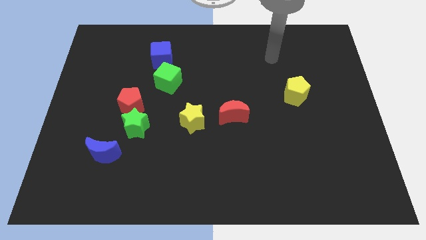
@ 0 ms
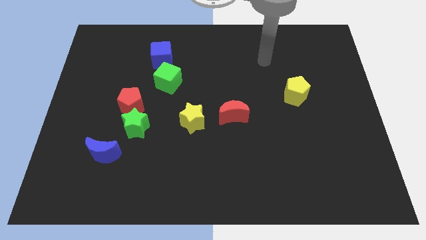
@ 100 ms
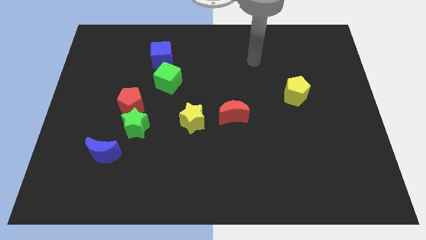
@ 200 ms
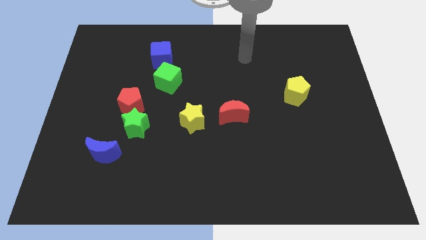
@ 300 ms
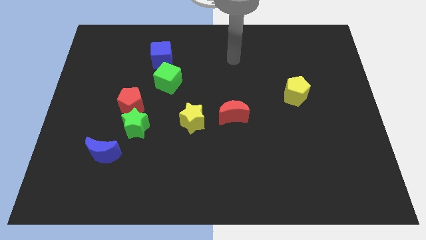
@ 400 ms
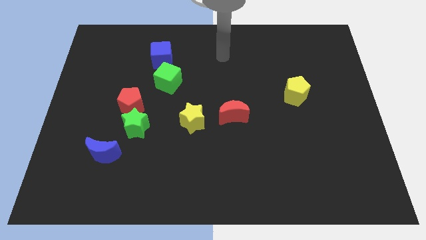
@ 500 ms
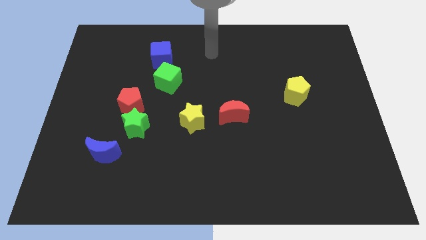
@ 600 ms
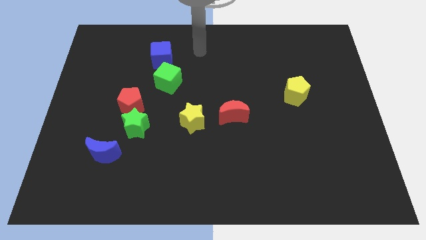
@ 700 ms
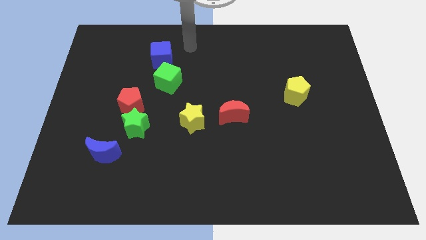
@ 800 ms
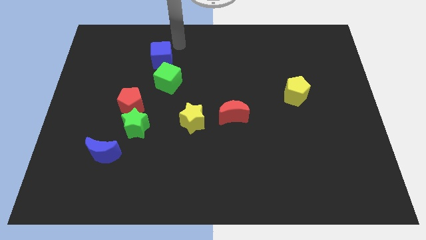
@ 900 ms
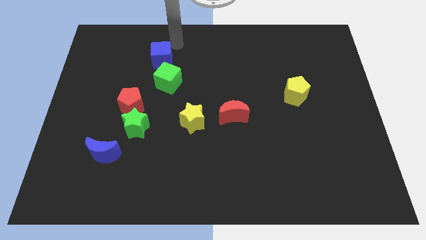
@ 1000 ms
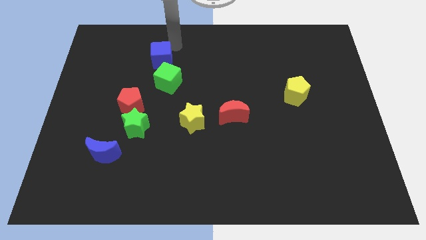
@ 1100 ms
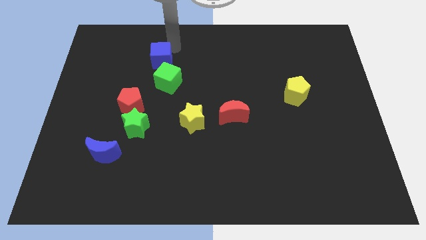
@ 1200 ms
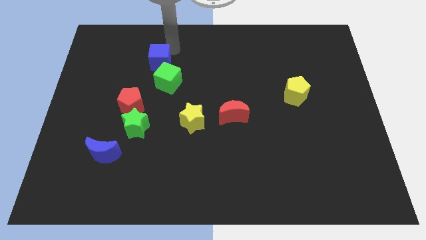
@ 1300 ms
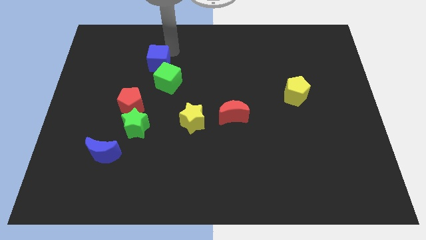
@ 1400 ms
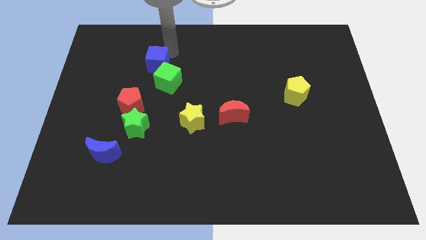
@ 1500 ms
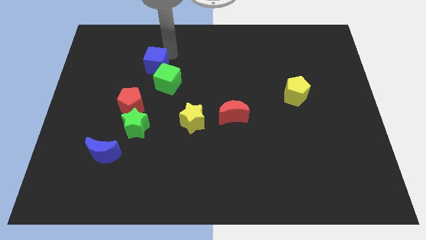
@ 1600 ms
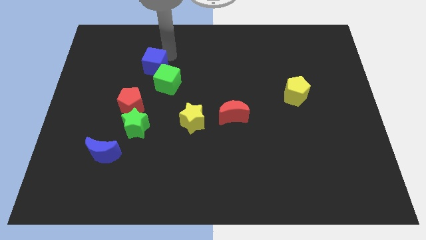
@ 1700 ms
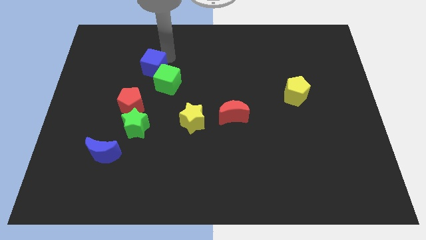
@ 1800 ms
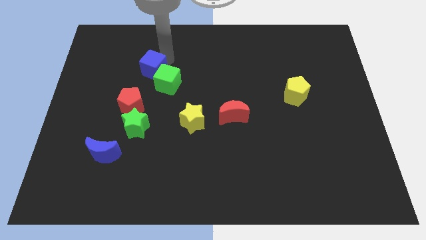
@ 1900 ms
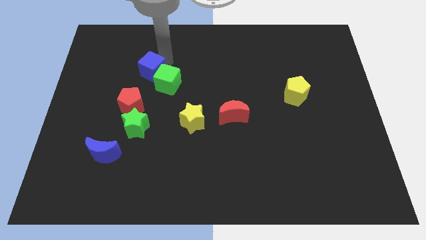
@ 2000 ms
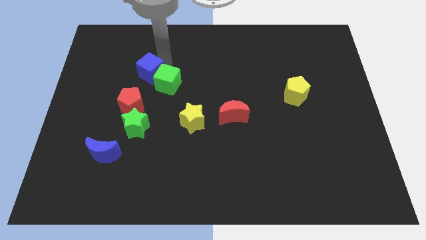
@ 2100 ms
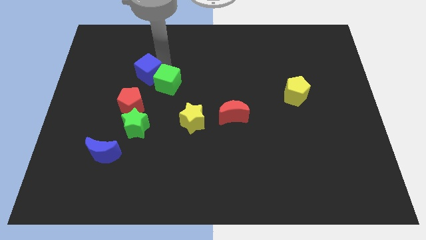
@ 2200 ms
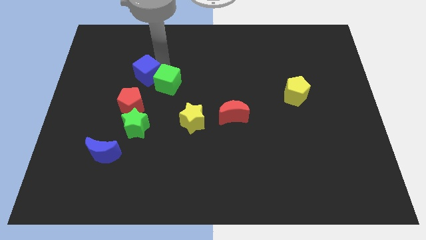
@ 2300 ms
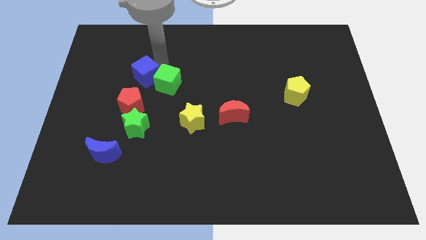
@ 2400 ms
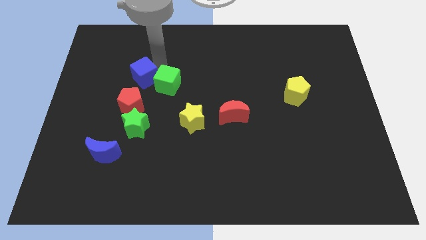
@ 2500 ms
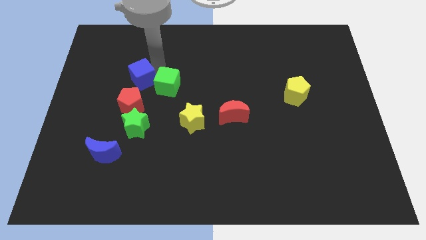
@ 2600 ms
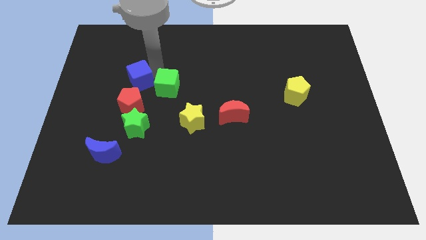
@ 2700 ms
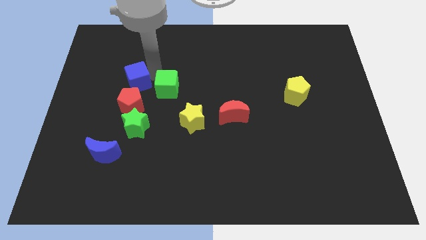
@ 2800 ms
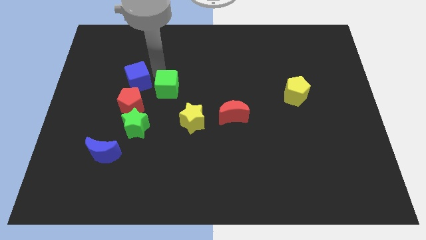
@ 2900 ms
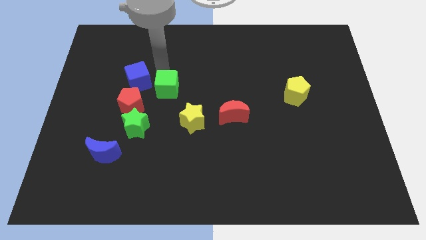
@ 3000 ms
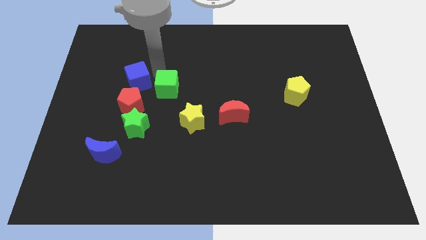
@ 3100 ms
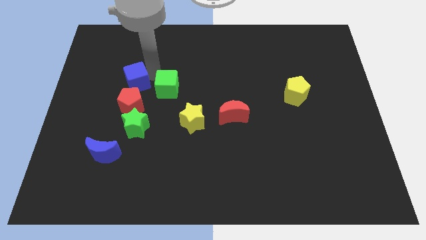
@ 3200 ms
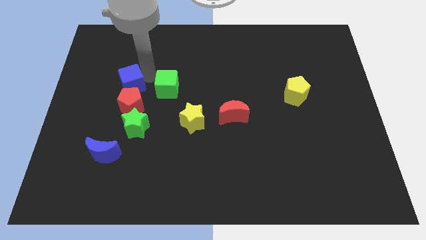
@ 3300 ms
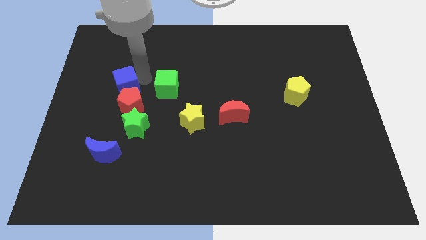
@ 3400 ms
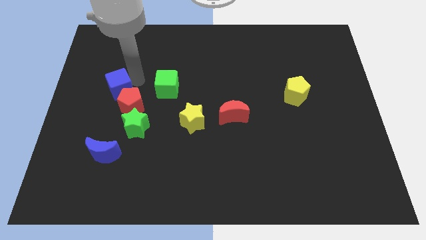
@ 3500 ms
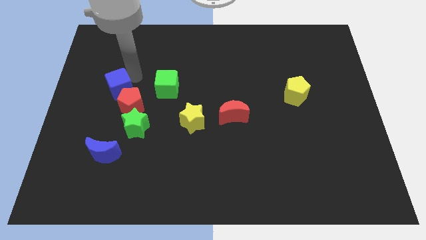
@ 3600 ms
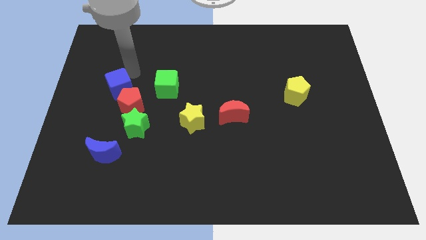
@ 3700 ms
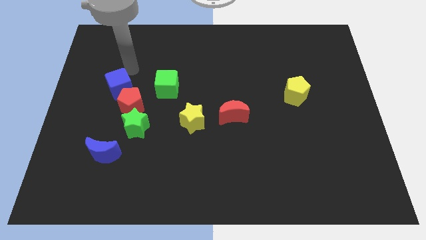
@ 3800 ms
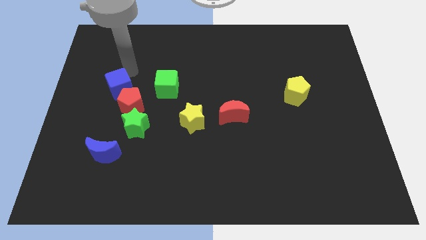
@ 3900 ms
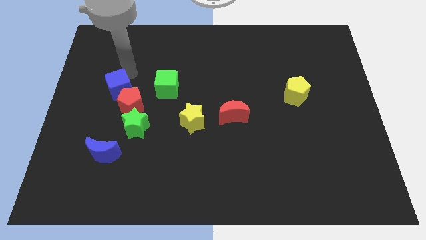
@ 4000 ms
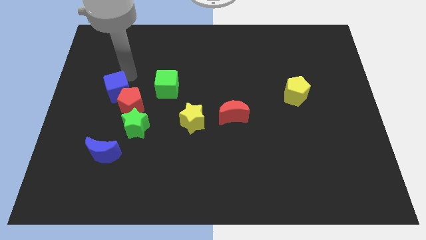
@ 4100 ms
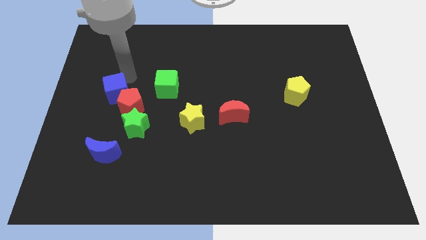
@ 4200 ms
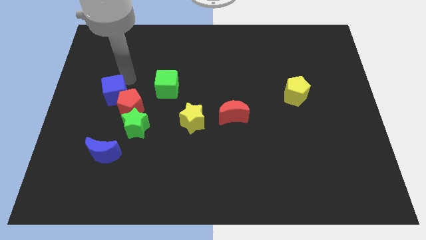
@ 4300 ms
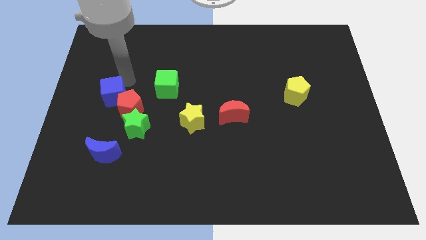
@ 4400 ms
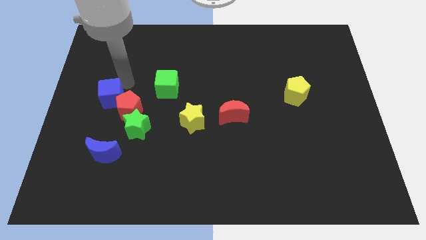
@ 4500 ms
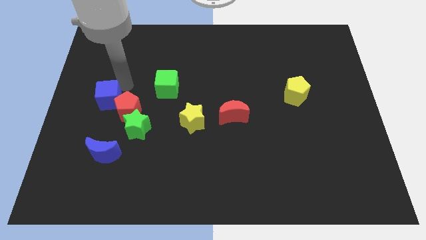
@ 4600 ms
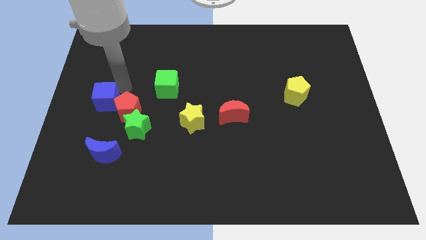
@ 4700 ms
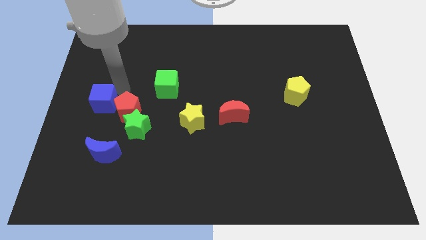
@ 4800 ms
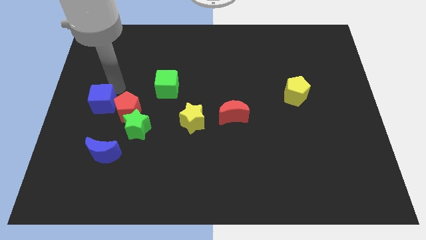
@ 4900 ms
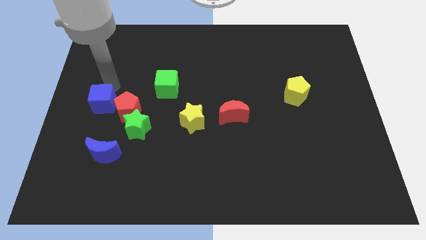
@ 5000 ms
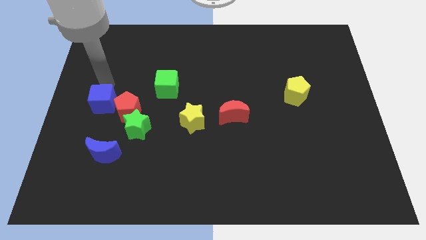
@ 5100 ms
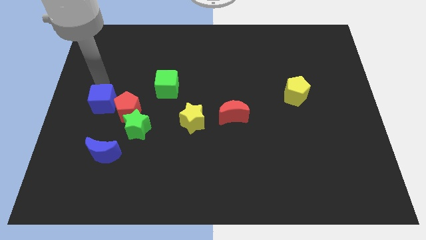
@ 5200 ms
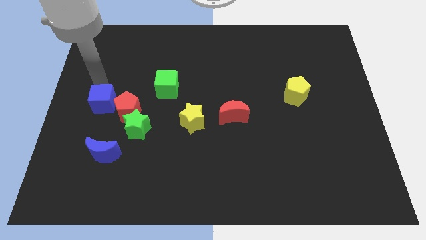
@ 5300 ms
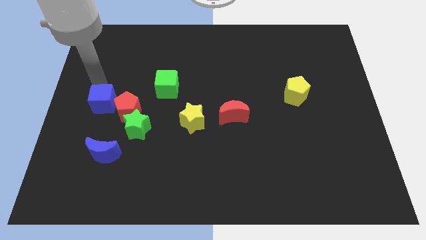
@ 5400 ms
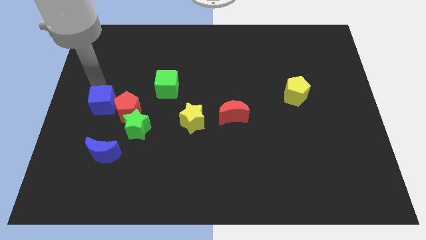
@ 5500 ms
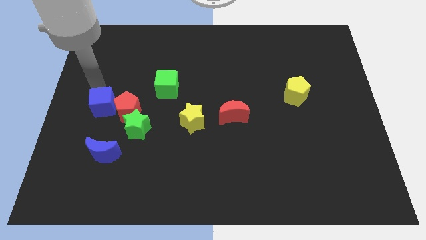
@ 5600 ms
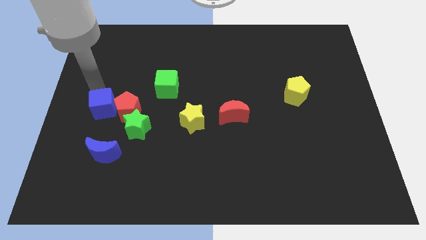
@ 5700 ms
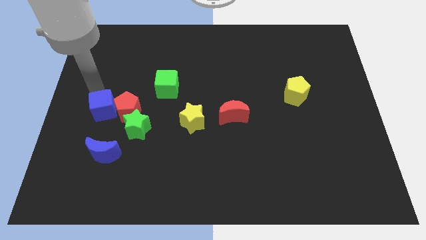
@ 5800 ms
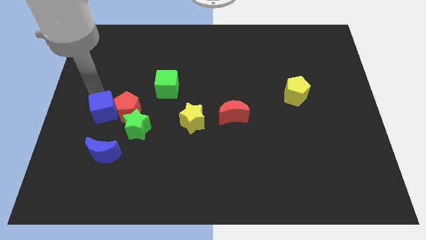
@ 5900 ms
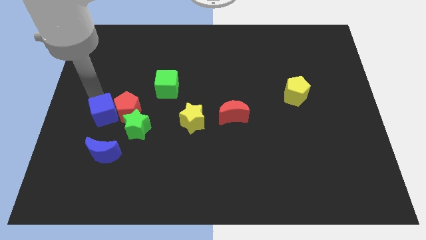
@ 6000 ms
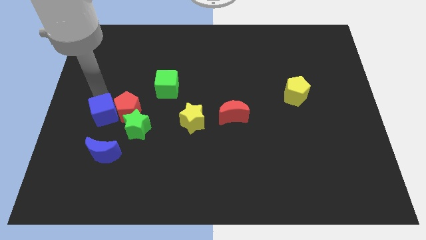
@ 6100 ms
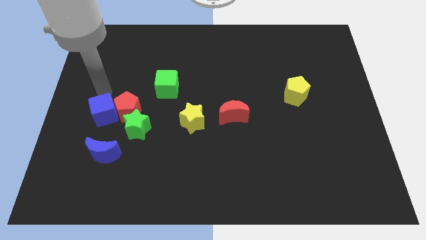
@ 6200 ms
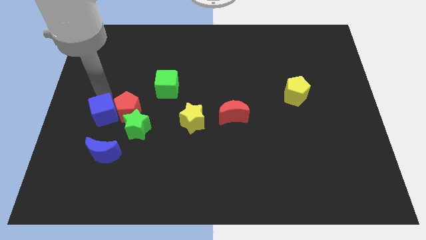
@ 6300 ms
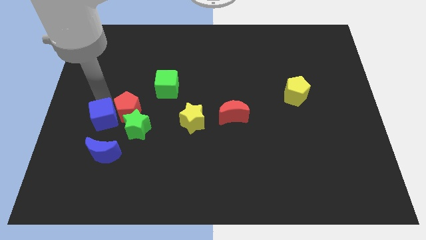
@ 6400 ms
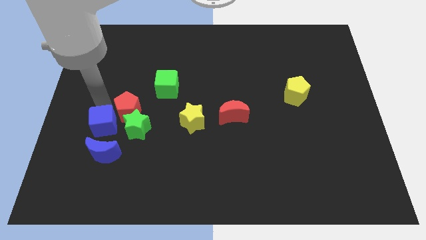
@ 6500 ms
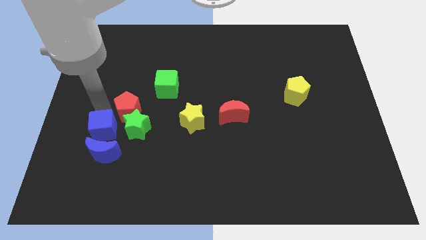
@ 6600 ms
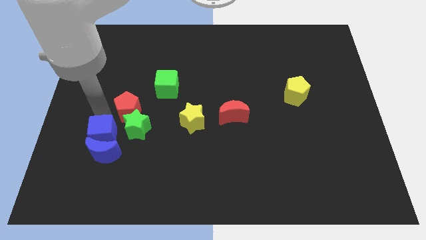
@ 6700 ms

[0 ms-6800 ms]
push the blue cube towards the blue moon

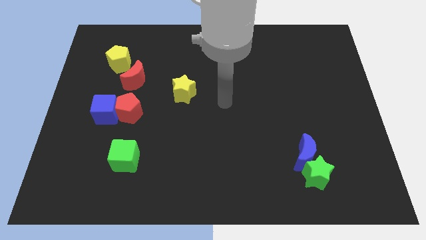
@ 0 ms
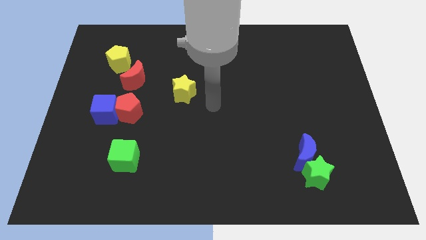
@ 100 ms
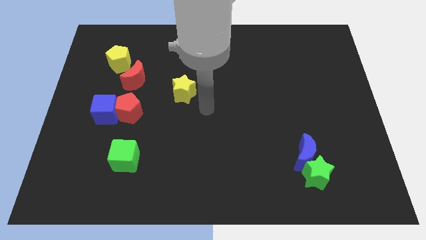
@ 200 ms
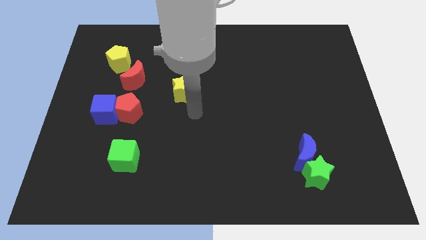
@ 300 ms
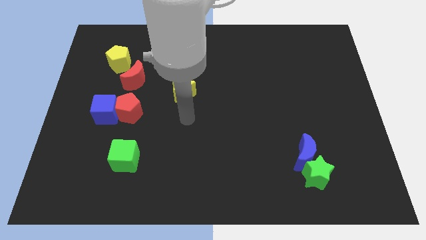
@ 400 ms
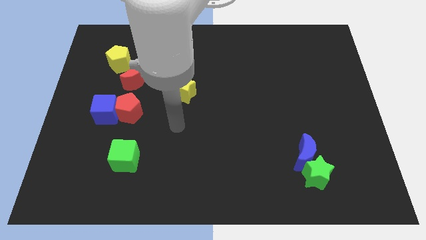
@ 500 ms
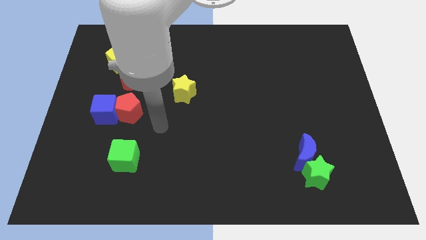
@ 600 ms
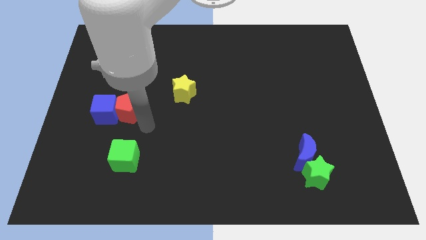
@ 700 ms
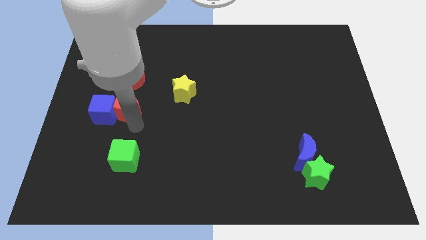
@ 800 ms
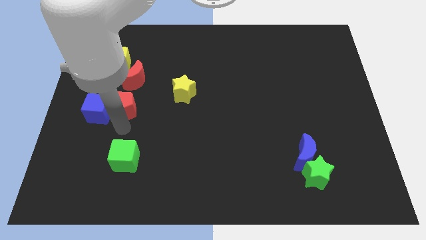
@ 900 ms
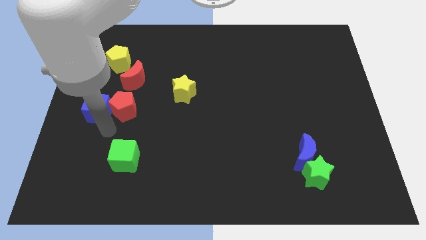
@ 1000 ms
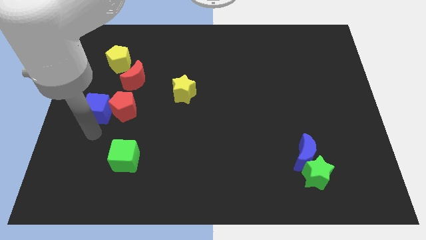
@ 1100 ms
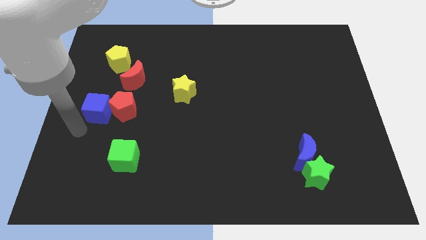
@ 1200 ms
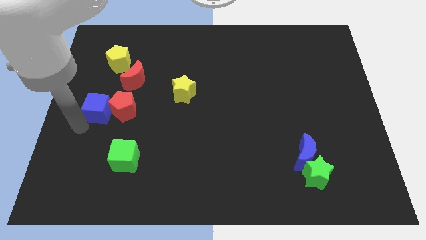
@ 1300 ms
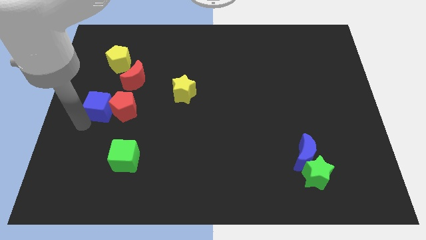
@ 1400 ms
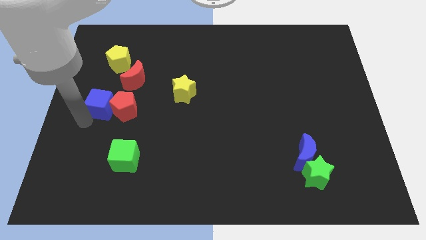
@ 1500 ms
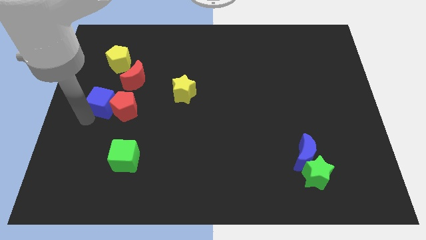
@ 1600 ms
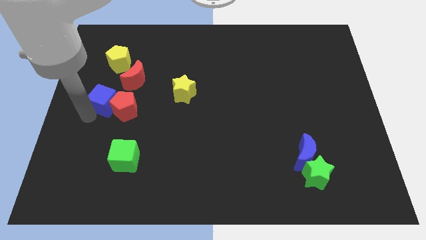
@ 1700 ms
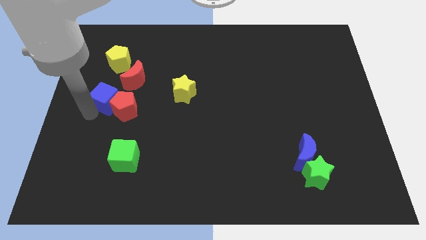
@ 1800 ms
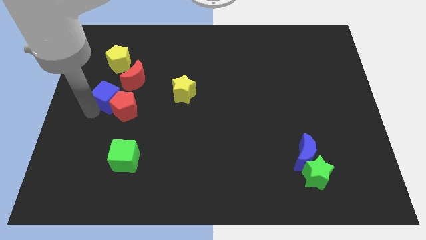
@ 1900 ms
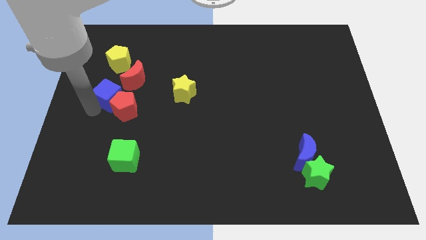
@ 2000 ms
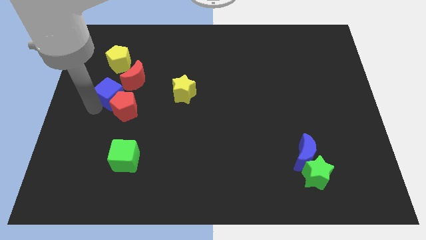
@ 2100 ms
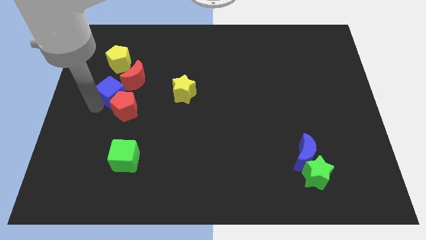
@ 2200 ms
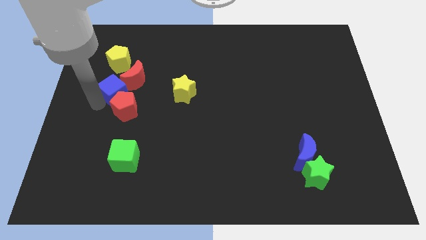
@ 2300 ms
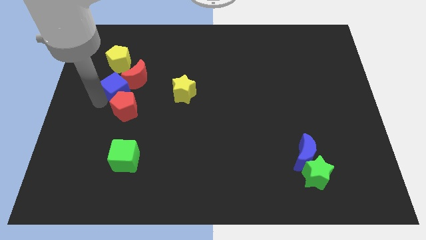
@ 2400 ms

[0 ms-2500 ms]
put the blue cube close to the red moon
